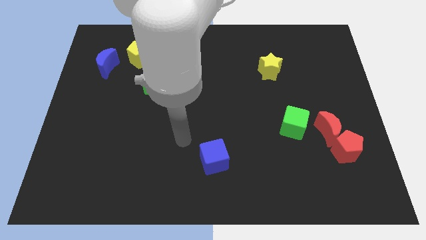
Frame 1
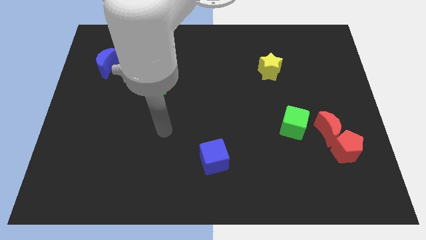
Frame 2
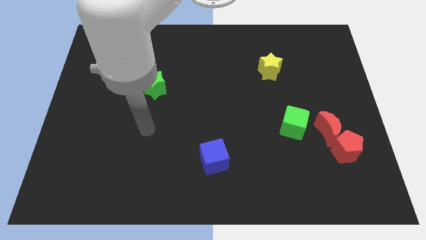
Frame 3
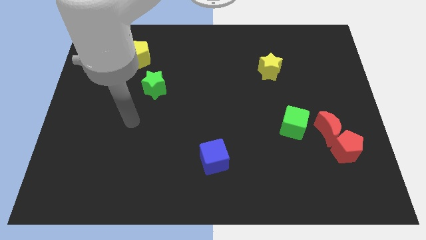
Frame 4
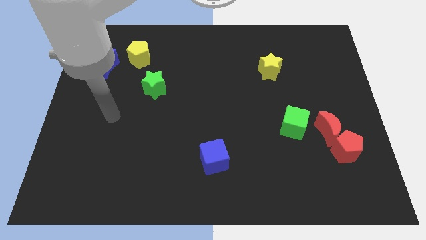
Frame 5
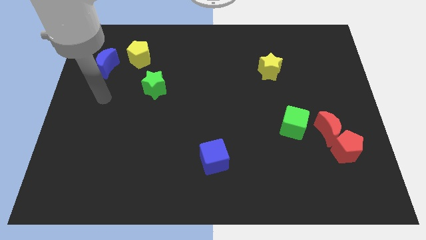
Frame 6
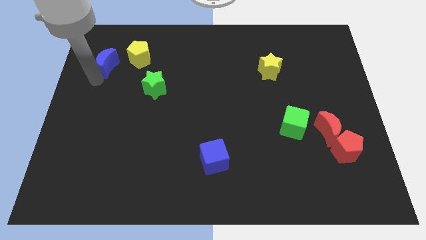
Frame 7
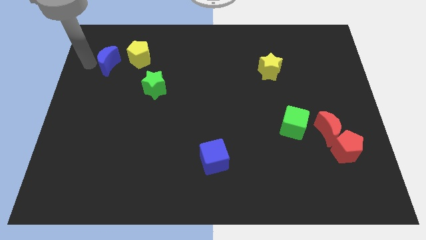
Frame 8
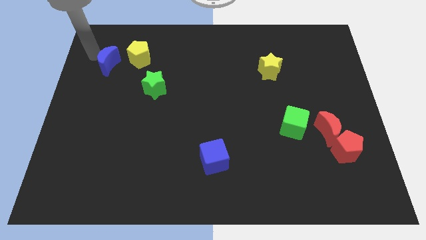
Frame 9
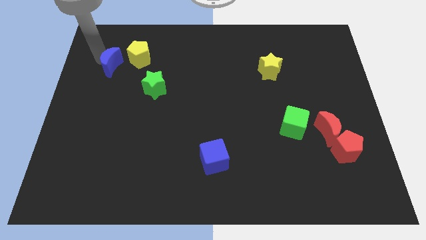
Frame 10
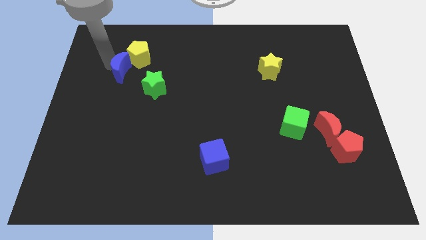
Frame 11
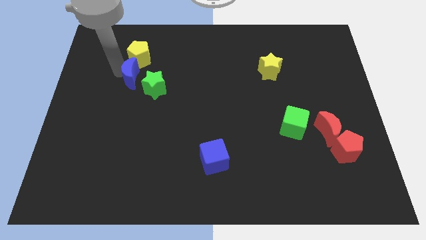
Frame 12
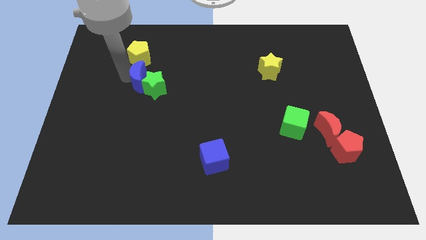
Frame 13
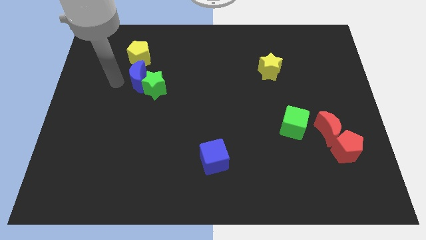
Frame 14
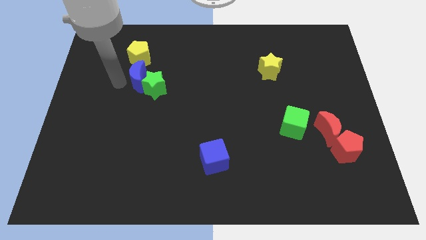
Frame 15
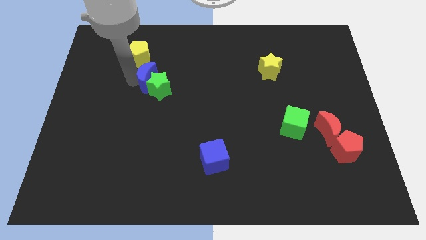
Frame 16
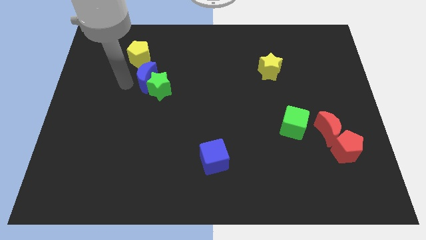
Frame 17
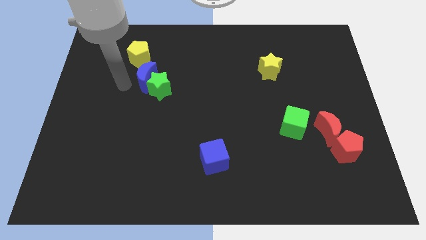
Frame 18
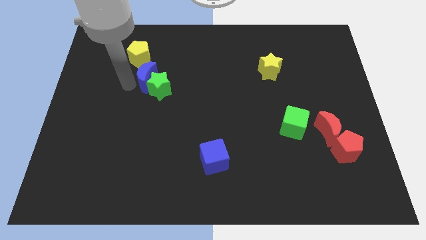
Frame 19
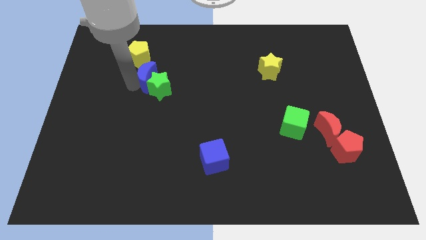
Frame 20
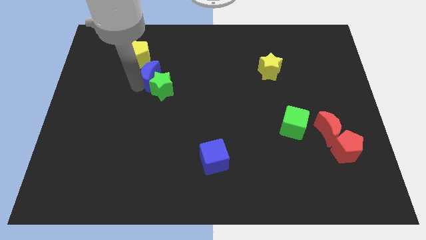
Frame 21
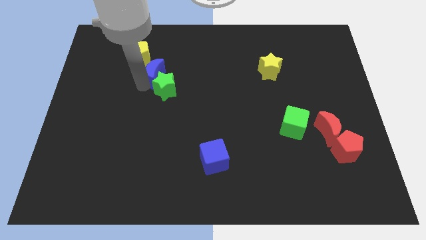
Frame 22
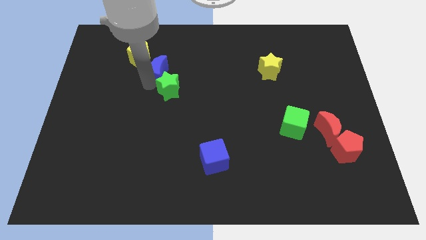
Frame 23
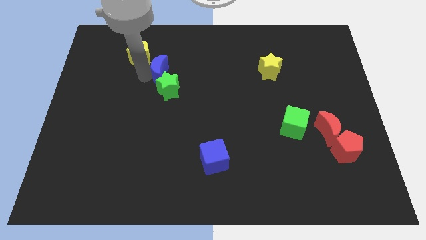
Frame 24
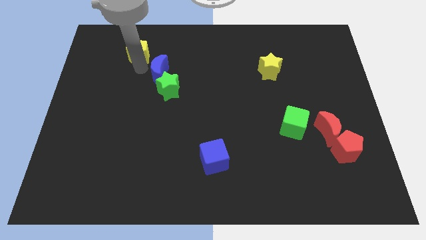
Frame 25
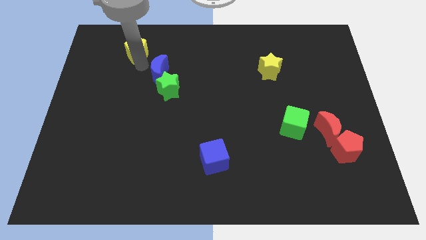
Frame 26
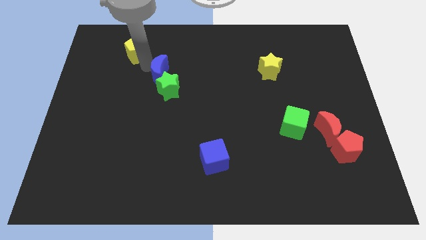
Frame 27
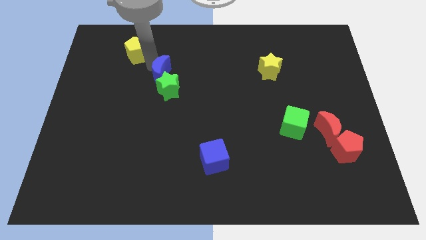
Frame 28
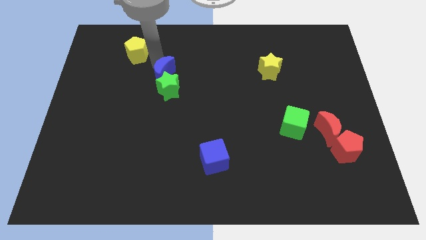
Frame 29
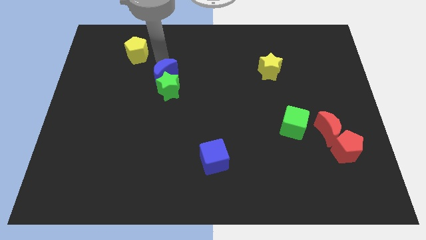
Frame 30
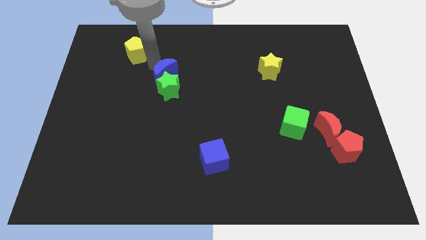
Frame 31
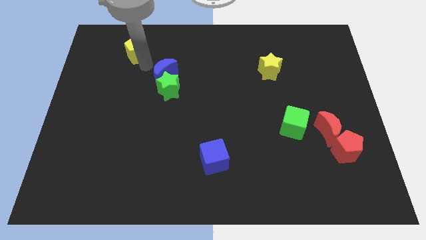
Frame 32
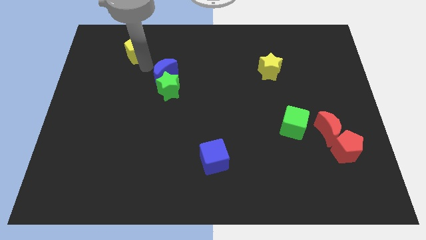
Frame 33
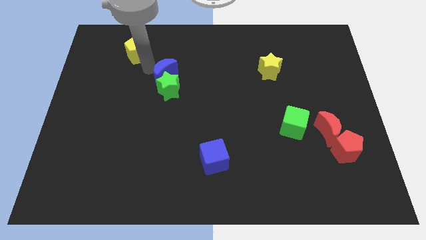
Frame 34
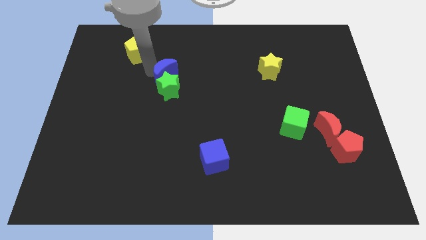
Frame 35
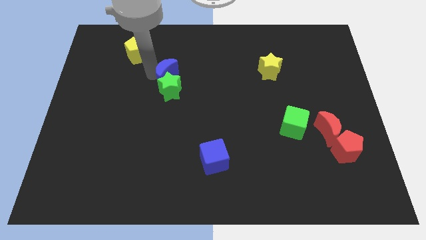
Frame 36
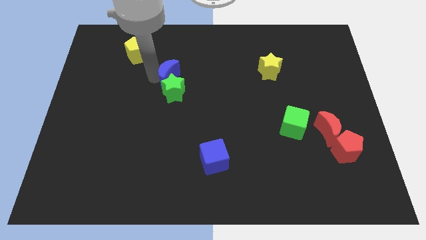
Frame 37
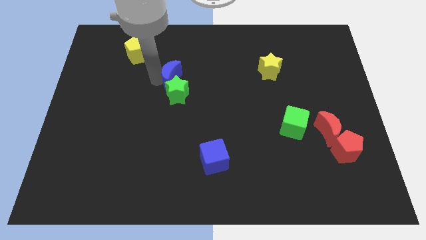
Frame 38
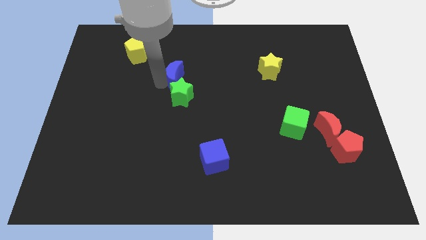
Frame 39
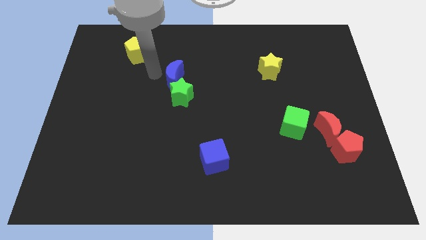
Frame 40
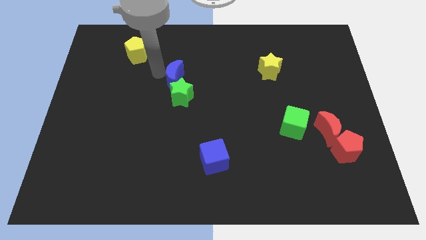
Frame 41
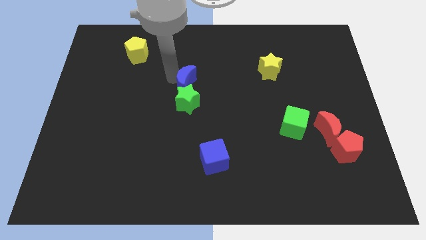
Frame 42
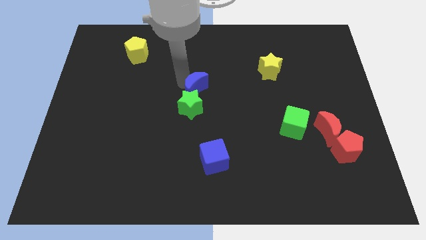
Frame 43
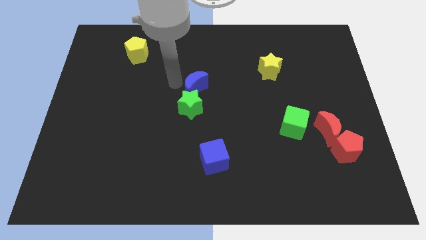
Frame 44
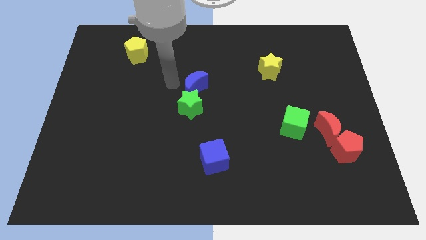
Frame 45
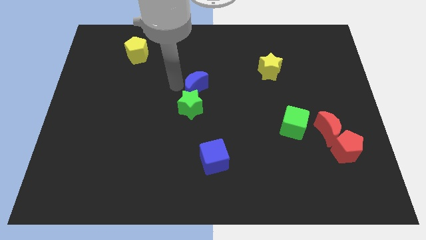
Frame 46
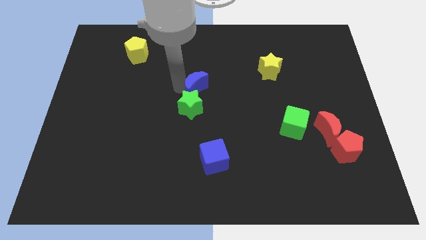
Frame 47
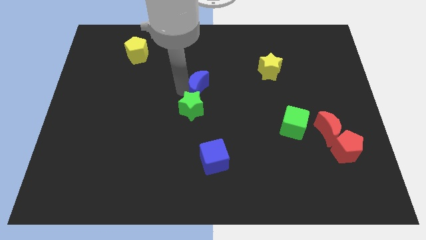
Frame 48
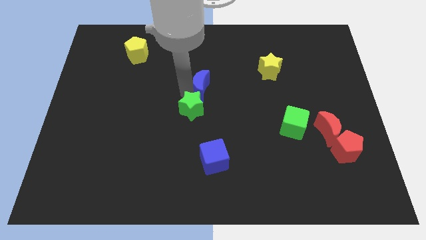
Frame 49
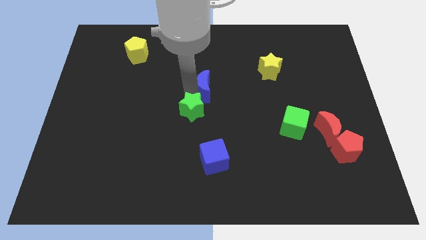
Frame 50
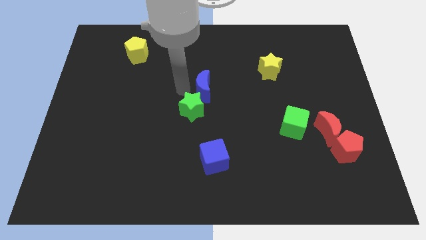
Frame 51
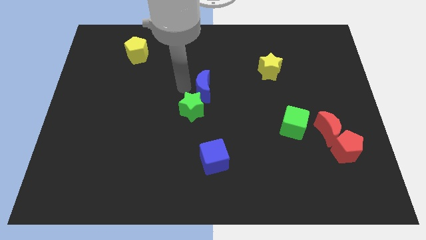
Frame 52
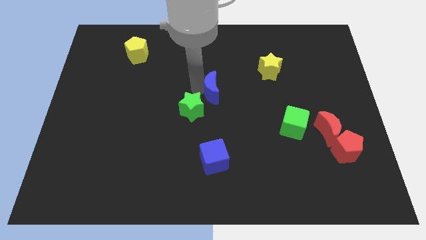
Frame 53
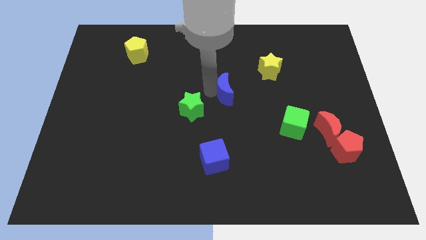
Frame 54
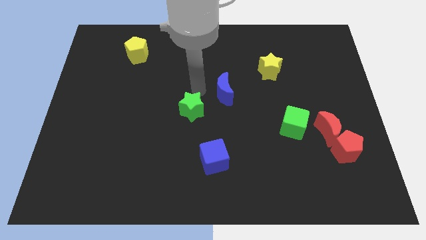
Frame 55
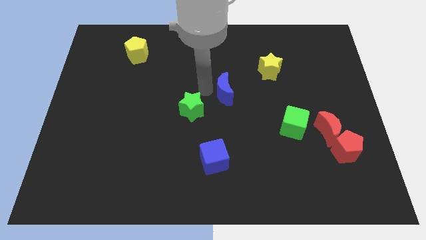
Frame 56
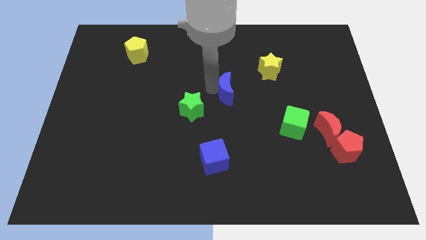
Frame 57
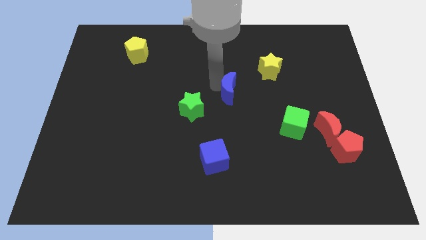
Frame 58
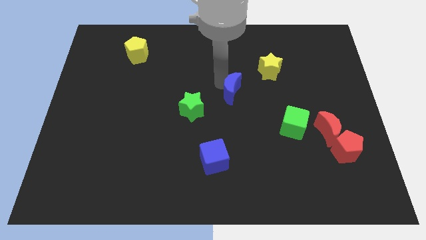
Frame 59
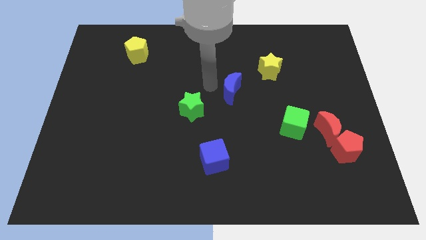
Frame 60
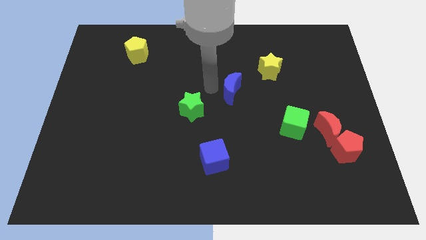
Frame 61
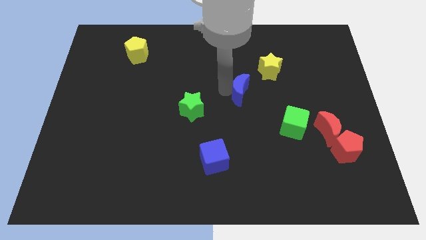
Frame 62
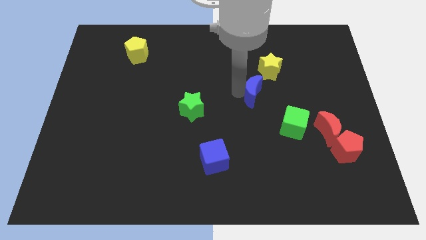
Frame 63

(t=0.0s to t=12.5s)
slide the blue moon below the yellow star

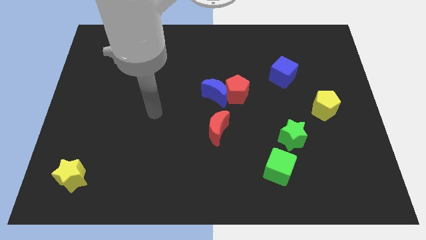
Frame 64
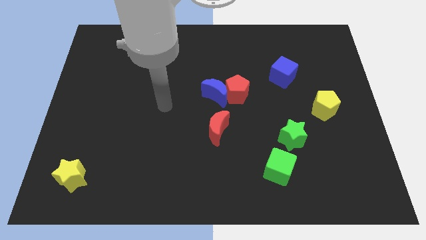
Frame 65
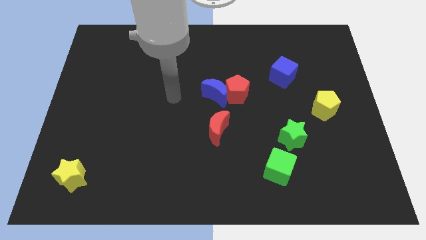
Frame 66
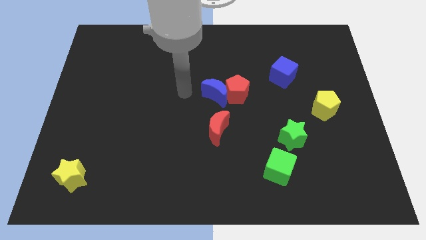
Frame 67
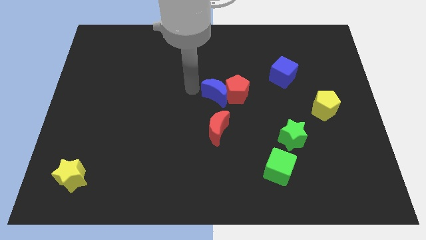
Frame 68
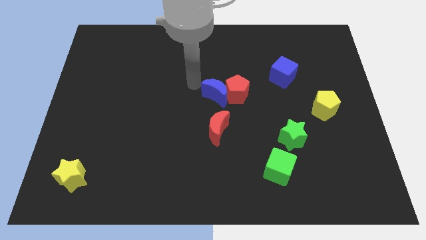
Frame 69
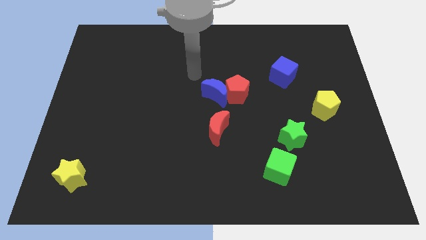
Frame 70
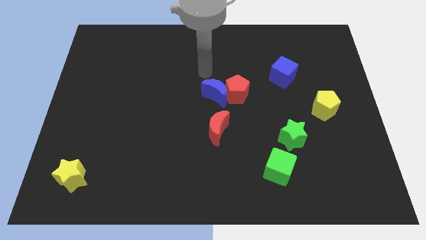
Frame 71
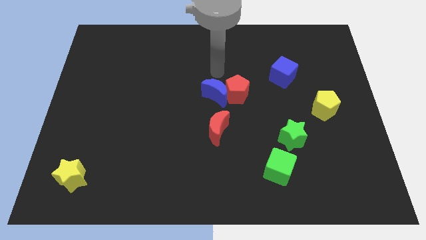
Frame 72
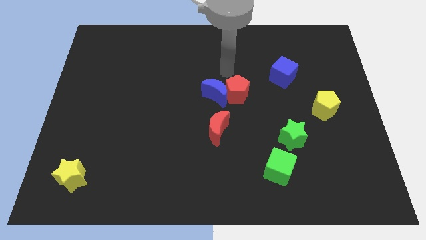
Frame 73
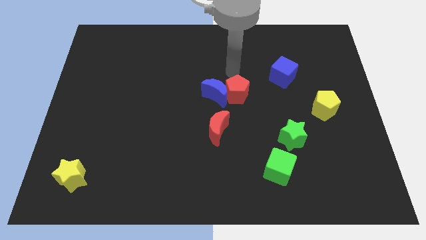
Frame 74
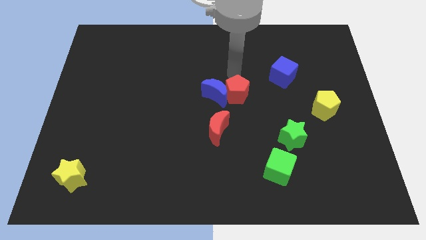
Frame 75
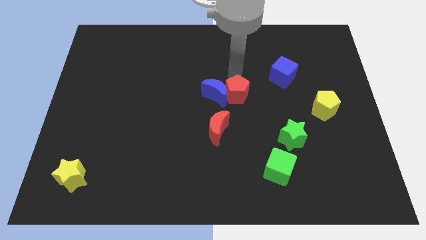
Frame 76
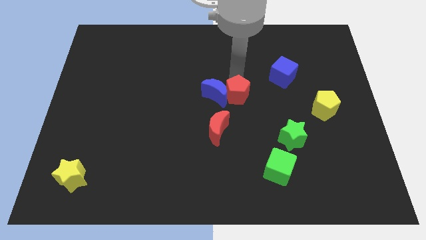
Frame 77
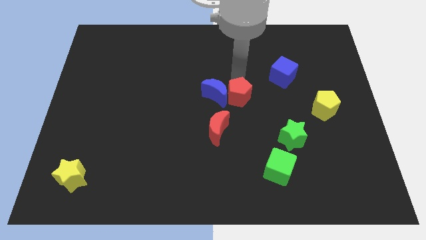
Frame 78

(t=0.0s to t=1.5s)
slide the red pentagon diagonally up and to the right of the red moon
